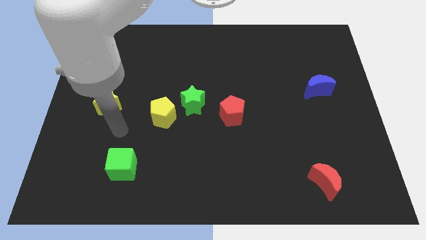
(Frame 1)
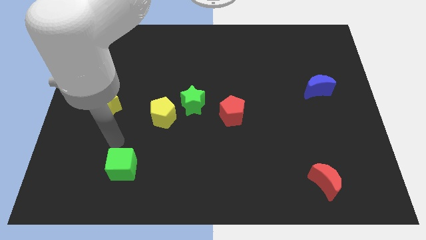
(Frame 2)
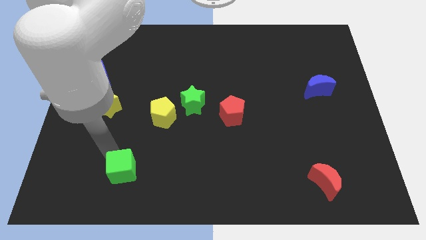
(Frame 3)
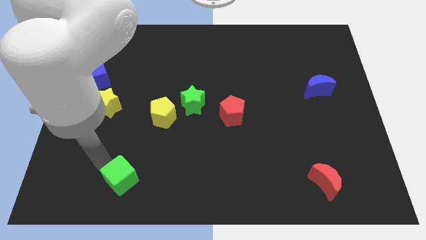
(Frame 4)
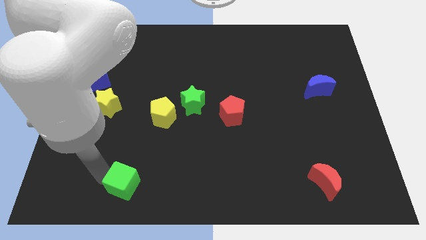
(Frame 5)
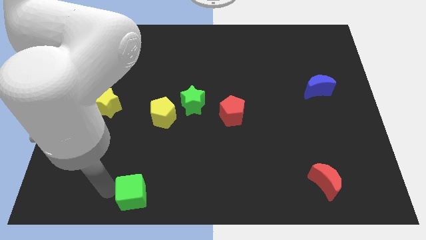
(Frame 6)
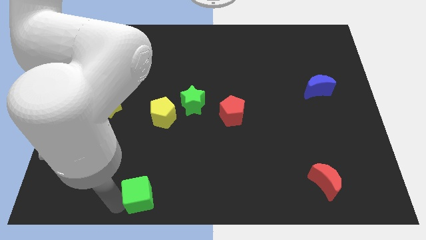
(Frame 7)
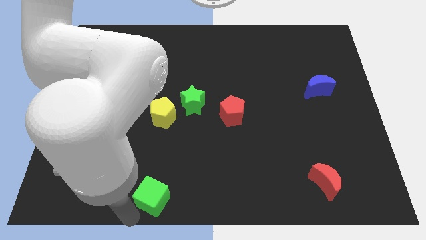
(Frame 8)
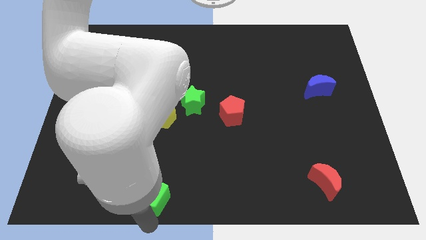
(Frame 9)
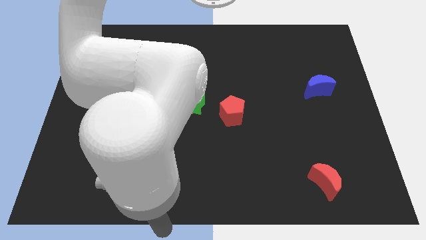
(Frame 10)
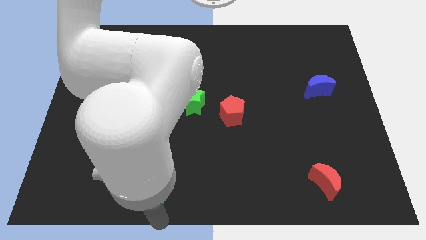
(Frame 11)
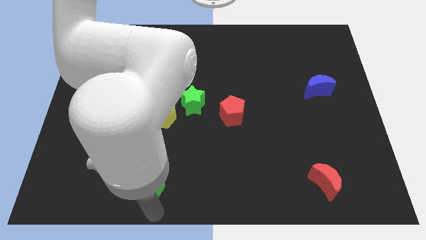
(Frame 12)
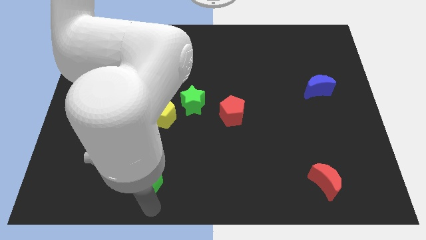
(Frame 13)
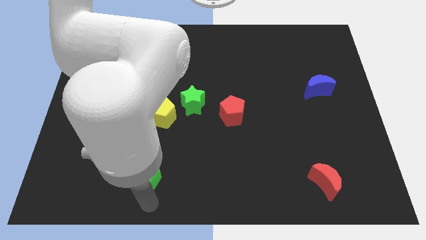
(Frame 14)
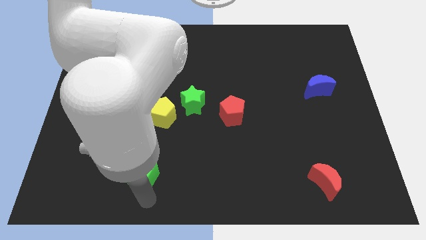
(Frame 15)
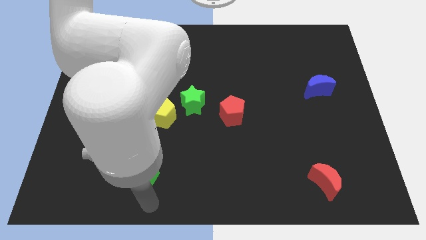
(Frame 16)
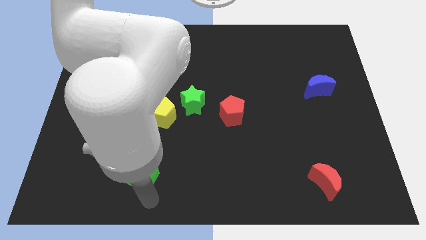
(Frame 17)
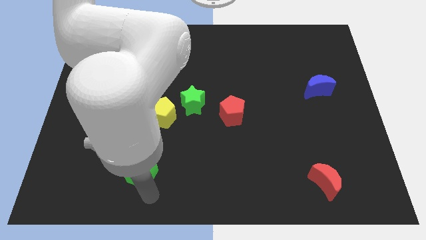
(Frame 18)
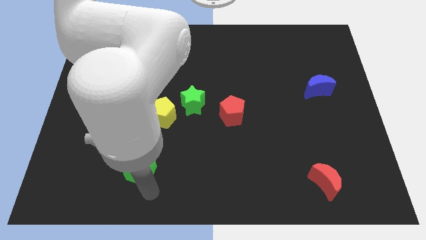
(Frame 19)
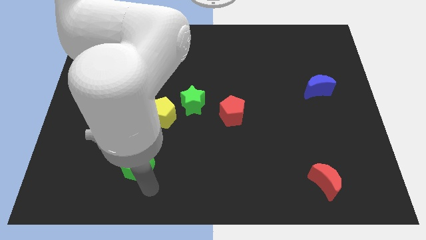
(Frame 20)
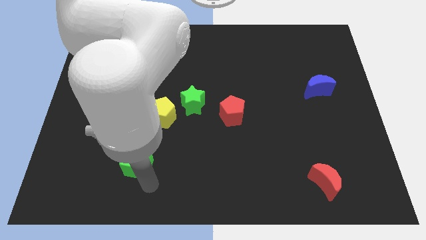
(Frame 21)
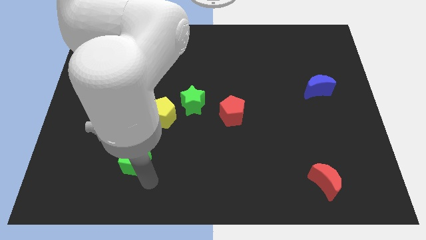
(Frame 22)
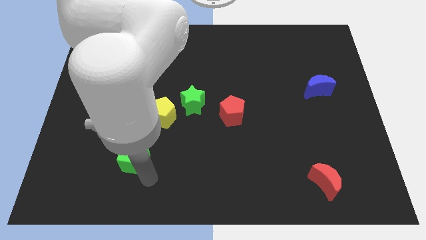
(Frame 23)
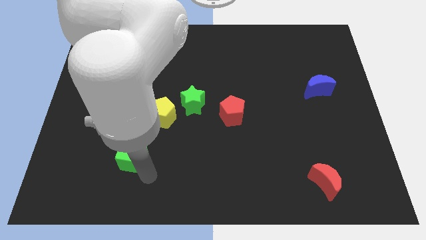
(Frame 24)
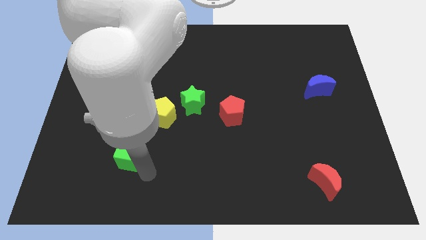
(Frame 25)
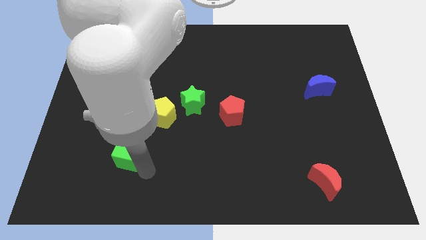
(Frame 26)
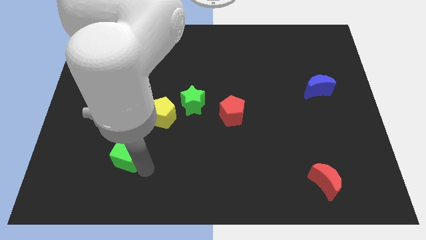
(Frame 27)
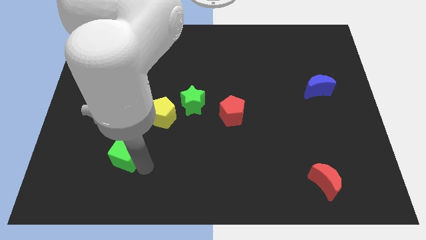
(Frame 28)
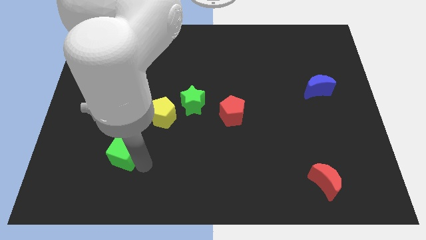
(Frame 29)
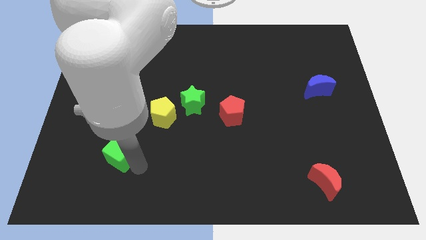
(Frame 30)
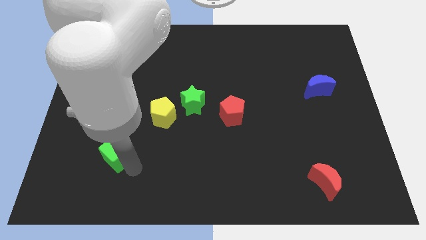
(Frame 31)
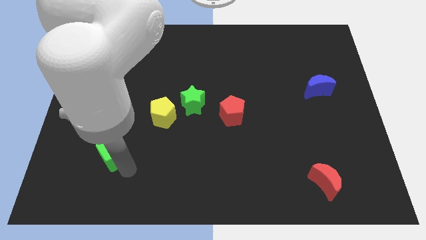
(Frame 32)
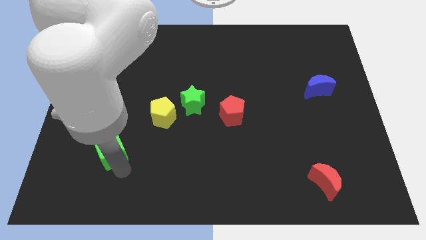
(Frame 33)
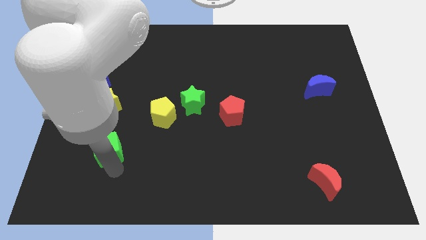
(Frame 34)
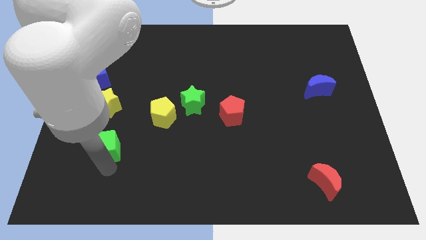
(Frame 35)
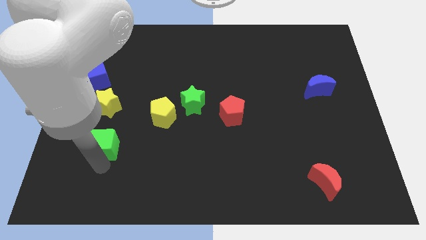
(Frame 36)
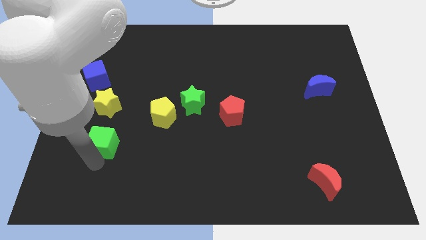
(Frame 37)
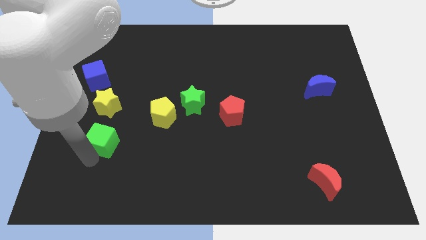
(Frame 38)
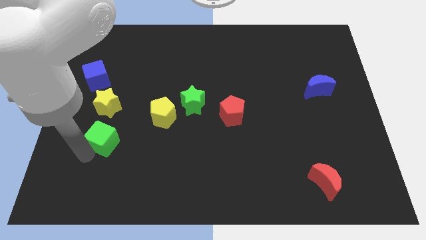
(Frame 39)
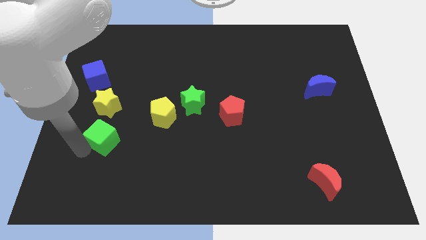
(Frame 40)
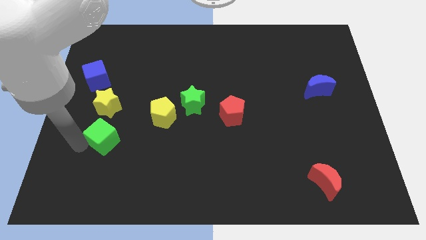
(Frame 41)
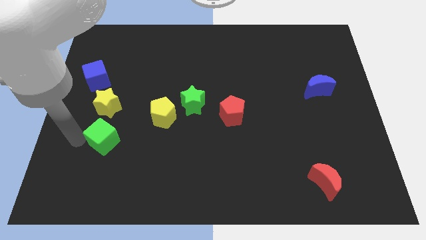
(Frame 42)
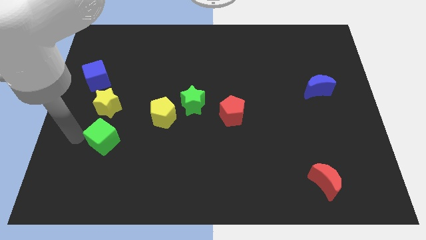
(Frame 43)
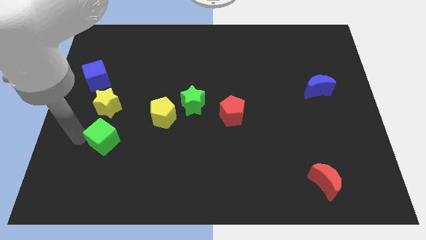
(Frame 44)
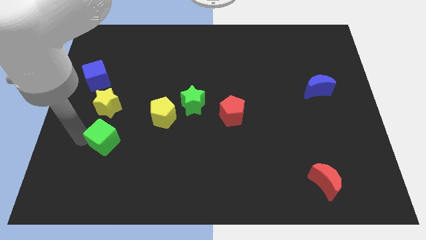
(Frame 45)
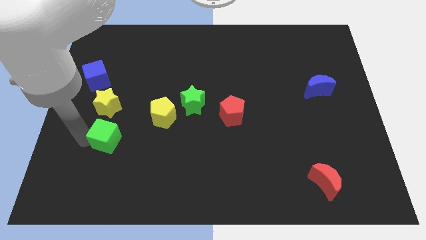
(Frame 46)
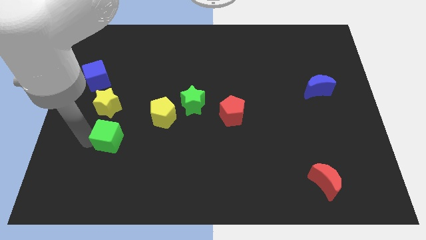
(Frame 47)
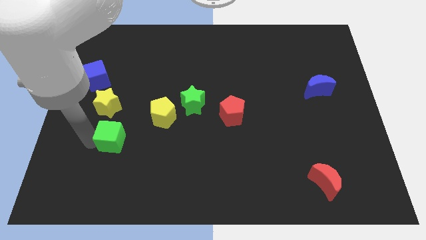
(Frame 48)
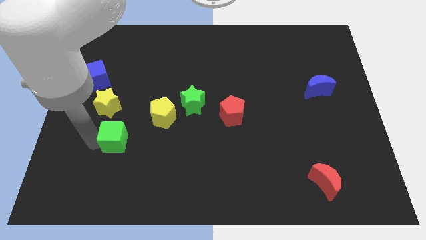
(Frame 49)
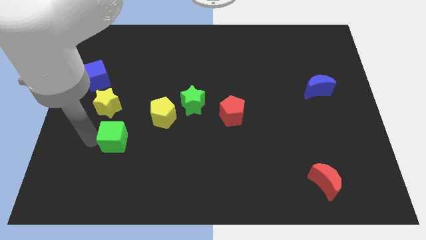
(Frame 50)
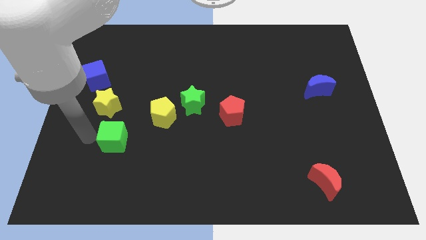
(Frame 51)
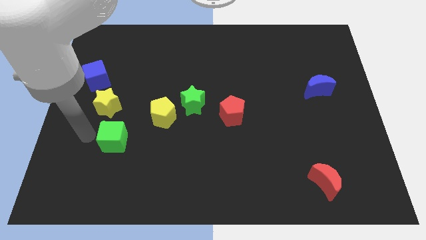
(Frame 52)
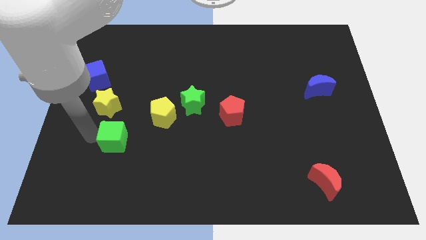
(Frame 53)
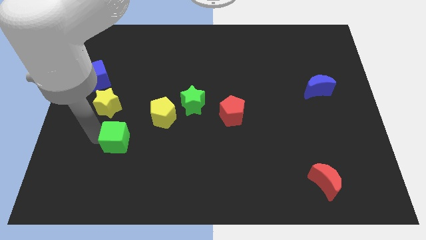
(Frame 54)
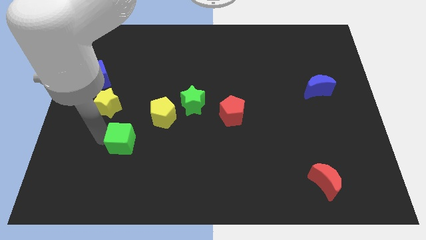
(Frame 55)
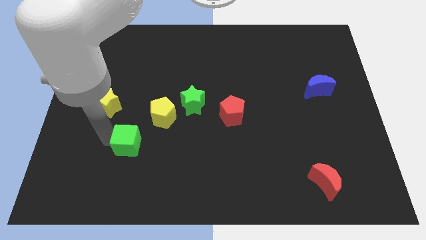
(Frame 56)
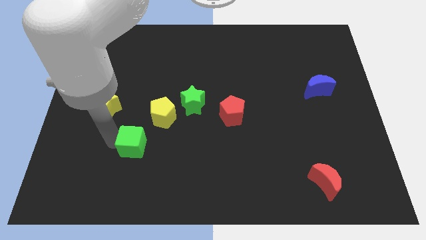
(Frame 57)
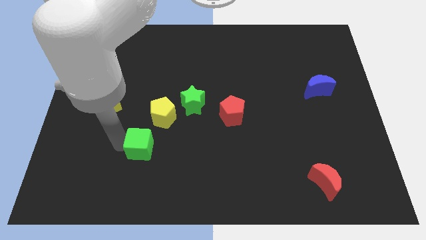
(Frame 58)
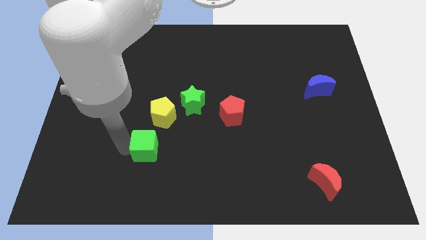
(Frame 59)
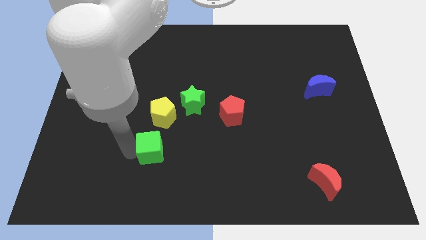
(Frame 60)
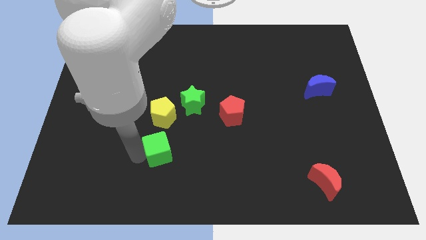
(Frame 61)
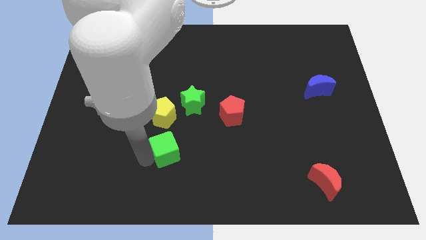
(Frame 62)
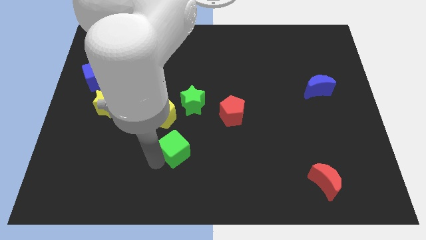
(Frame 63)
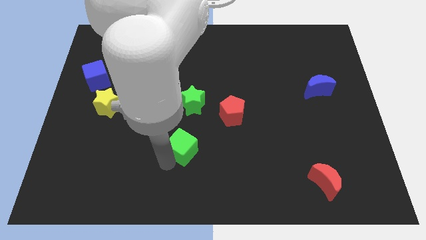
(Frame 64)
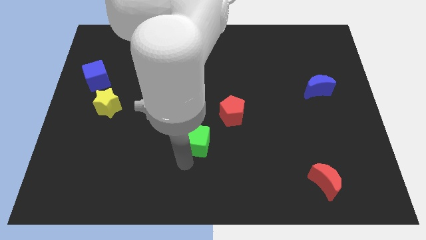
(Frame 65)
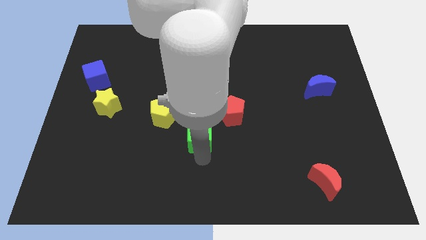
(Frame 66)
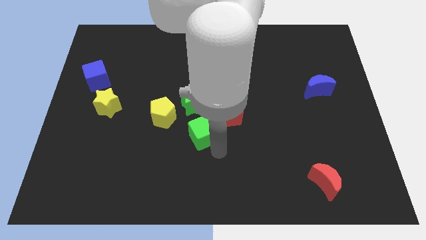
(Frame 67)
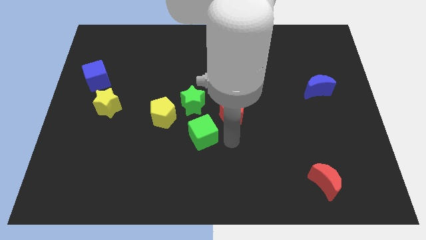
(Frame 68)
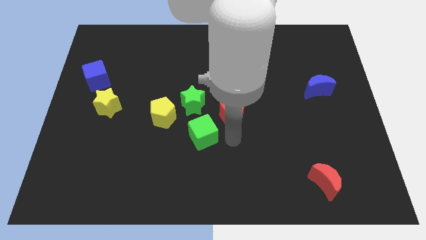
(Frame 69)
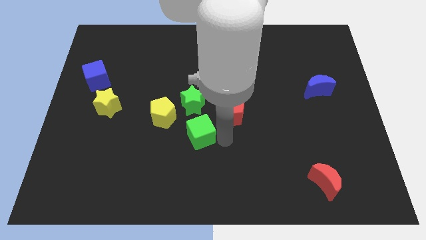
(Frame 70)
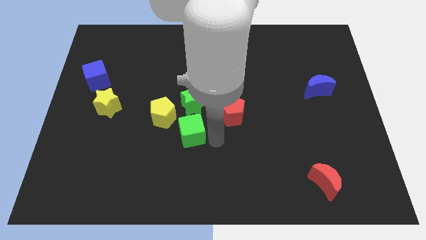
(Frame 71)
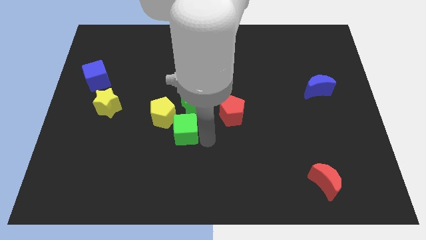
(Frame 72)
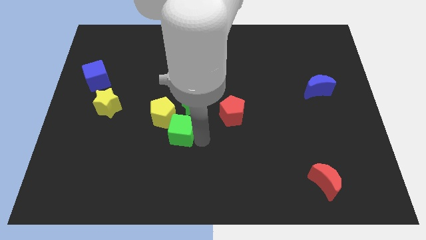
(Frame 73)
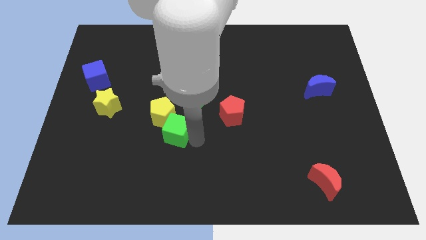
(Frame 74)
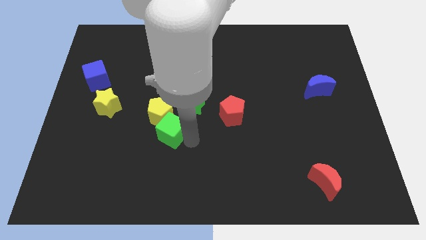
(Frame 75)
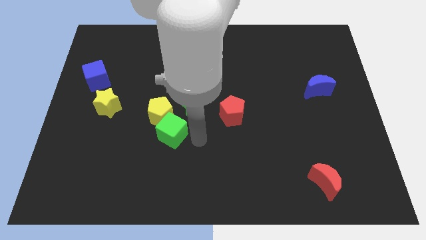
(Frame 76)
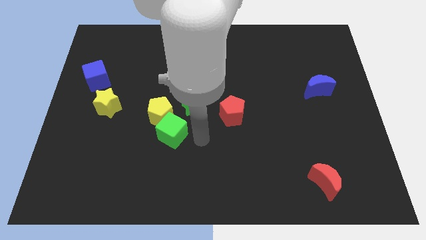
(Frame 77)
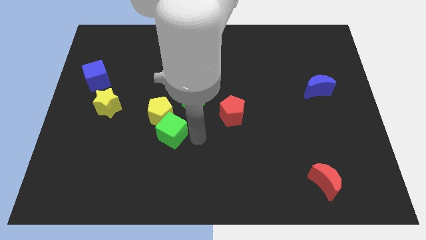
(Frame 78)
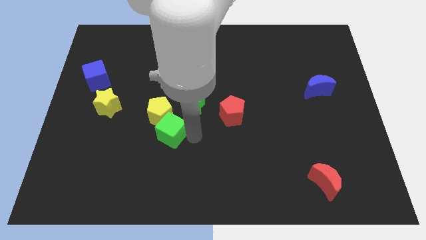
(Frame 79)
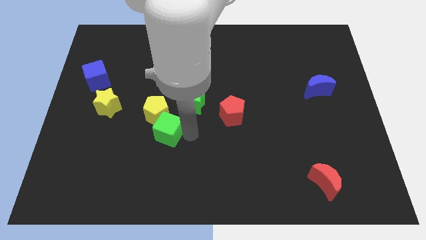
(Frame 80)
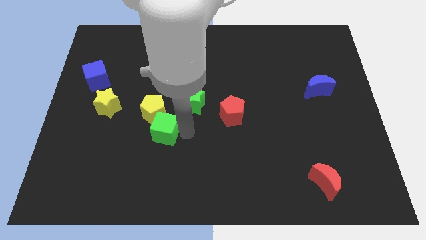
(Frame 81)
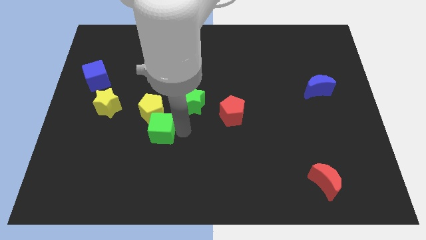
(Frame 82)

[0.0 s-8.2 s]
move the green cube upwards slightly

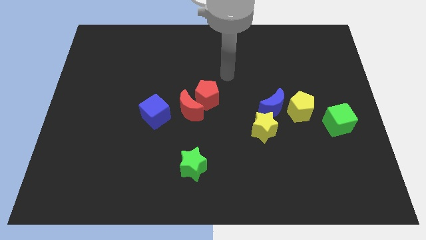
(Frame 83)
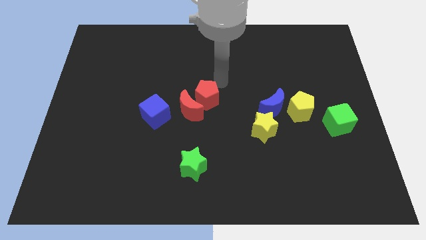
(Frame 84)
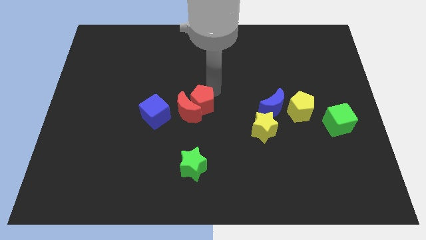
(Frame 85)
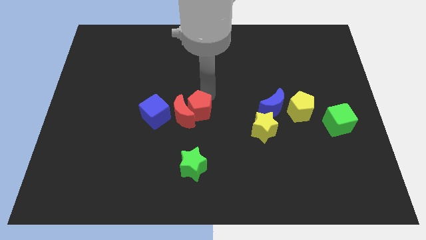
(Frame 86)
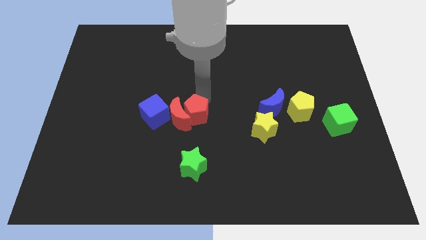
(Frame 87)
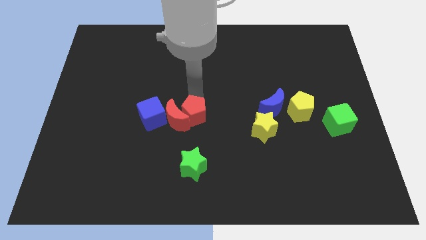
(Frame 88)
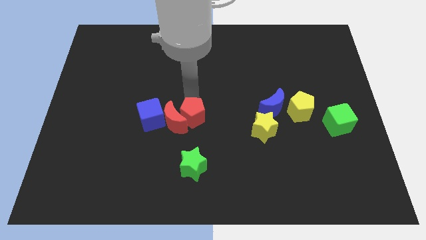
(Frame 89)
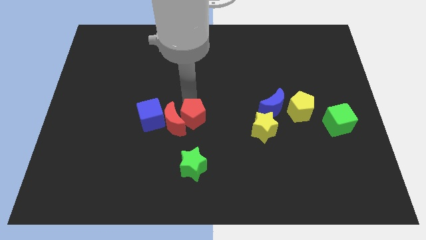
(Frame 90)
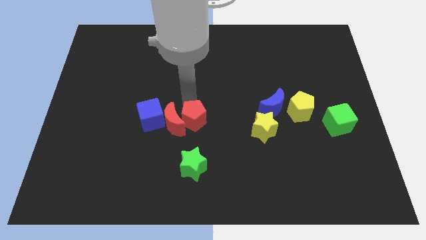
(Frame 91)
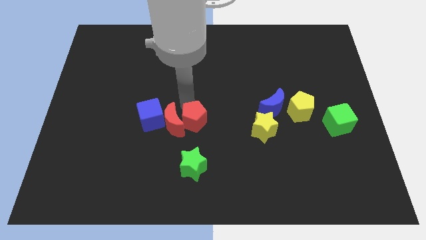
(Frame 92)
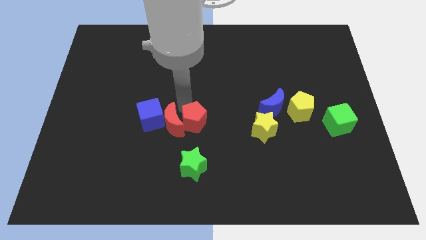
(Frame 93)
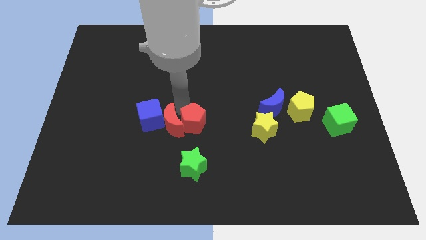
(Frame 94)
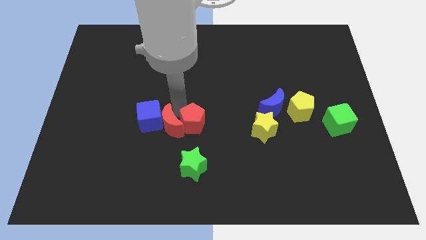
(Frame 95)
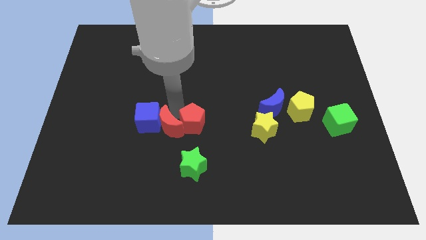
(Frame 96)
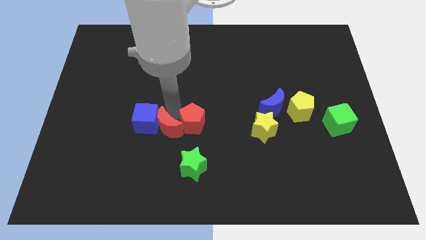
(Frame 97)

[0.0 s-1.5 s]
push the red moon slightly diagonally downwards and left
